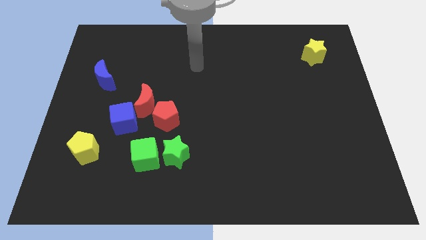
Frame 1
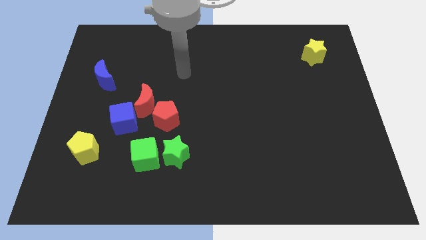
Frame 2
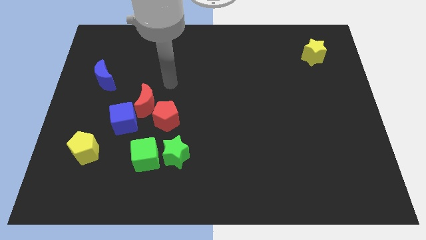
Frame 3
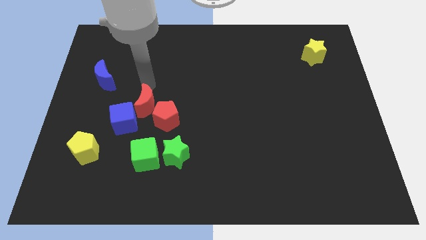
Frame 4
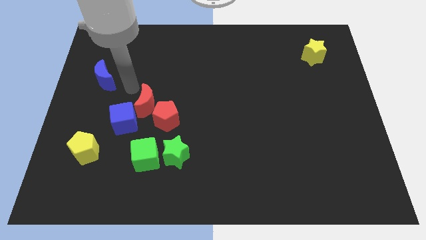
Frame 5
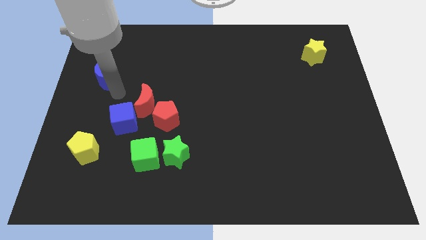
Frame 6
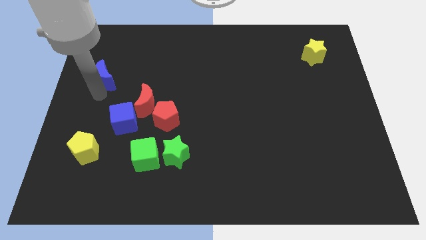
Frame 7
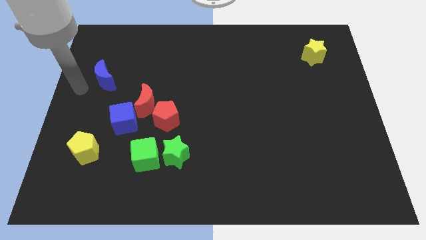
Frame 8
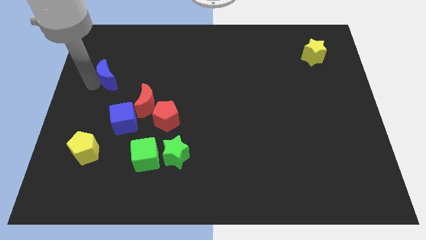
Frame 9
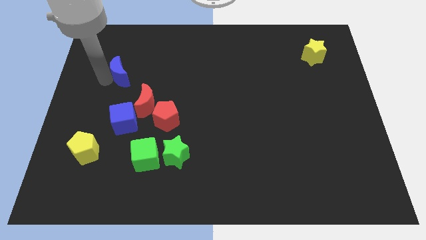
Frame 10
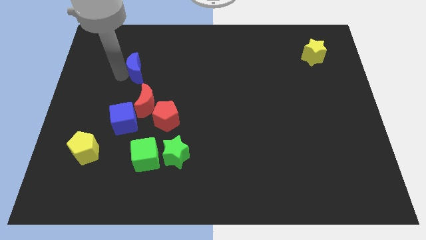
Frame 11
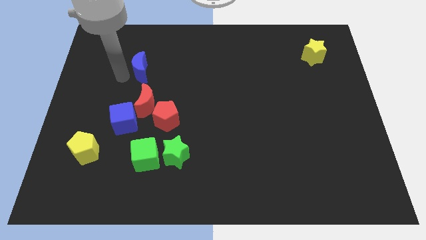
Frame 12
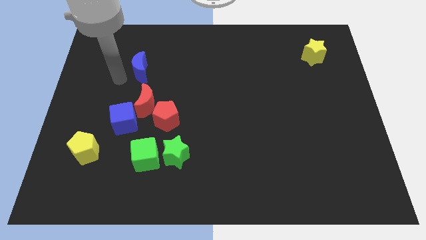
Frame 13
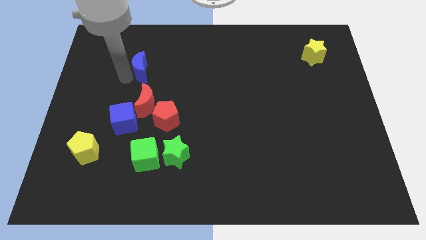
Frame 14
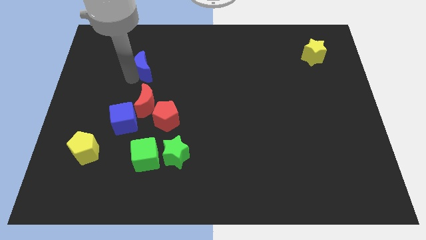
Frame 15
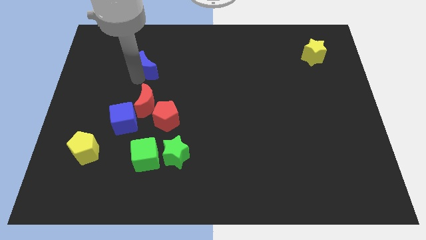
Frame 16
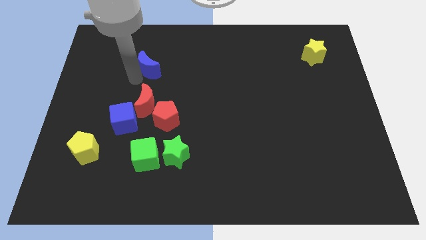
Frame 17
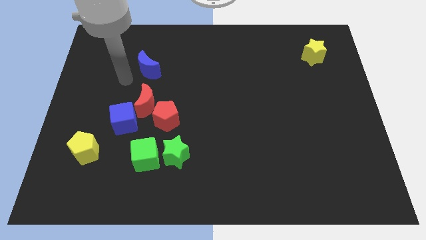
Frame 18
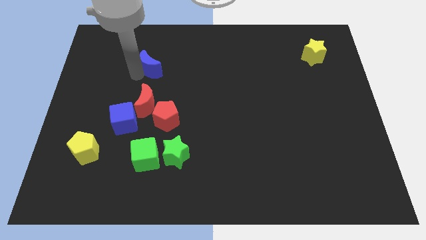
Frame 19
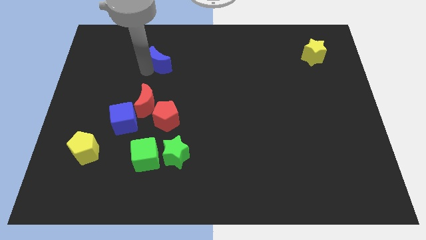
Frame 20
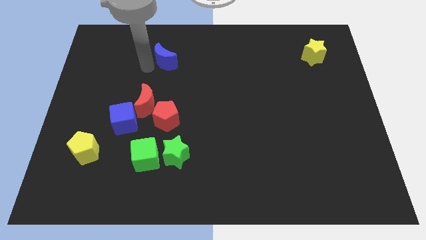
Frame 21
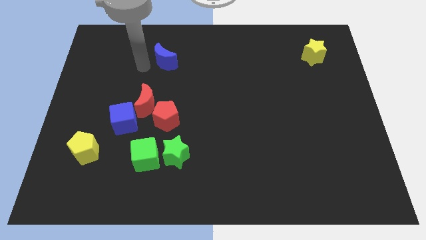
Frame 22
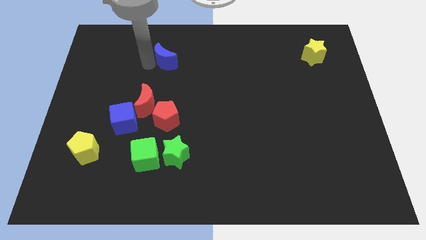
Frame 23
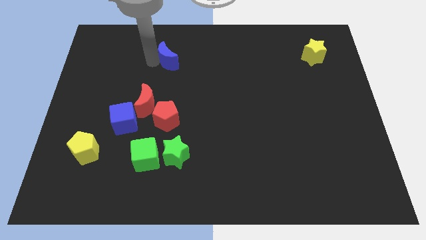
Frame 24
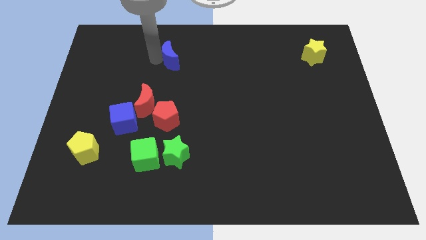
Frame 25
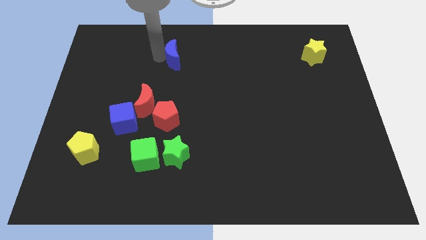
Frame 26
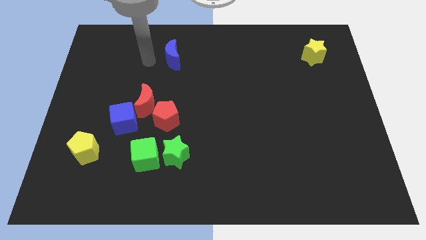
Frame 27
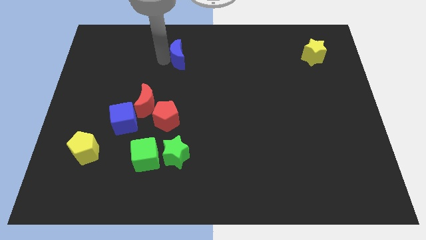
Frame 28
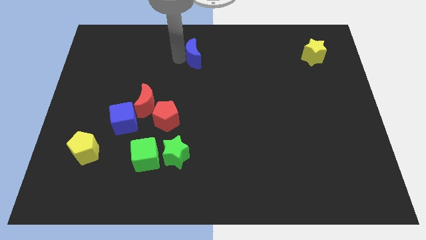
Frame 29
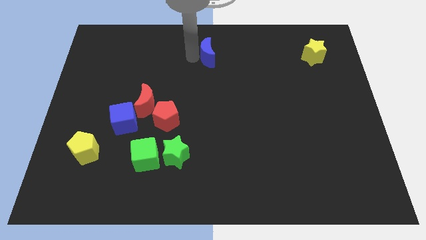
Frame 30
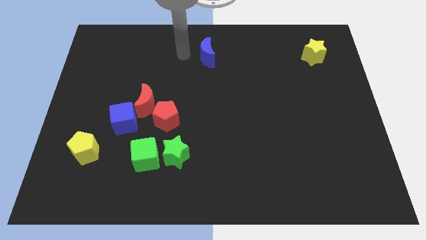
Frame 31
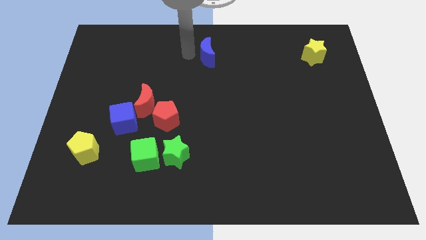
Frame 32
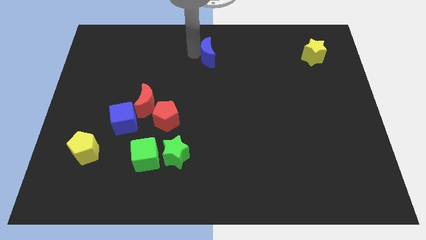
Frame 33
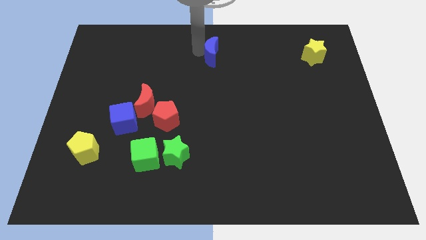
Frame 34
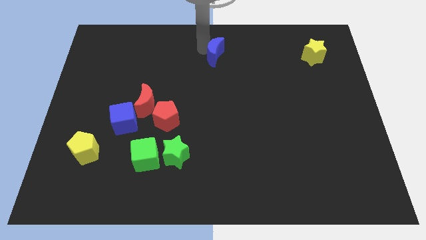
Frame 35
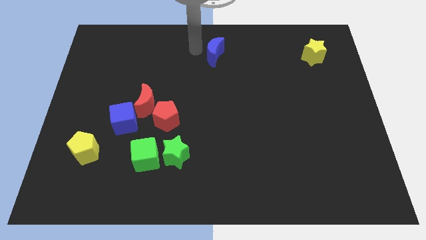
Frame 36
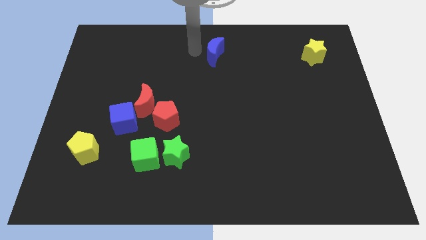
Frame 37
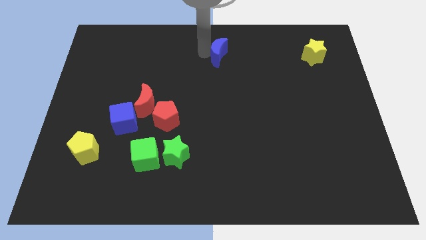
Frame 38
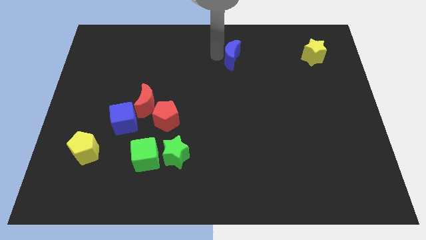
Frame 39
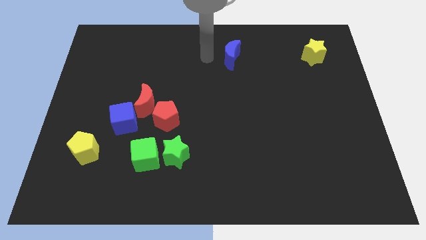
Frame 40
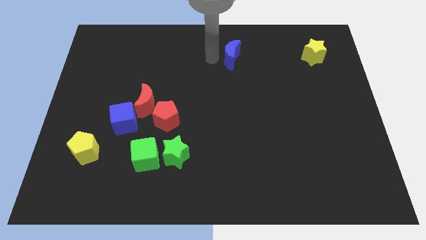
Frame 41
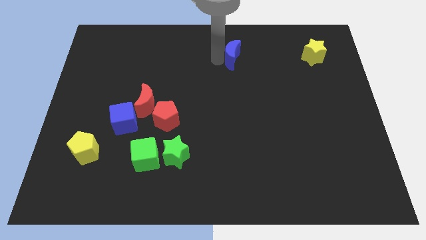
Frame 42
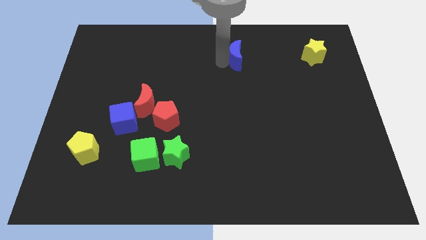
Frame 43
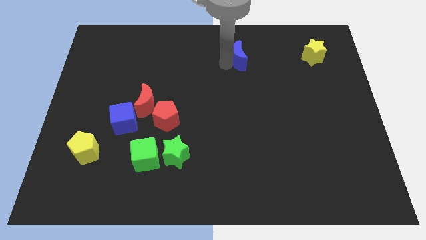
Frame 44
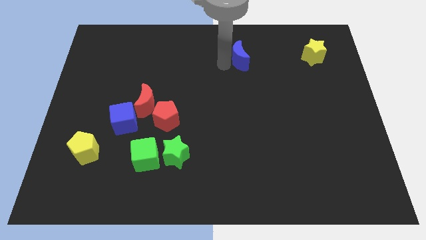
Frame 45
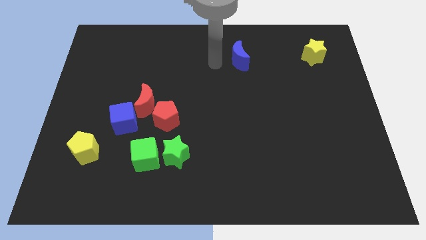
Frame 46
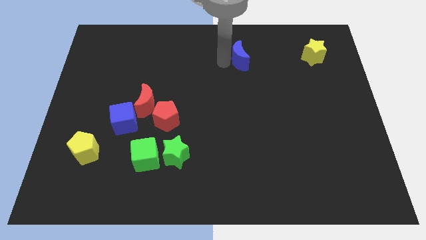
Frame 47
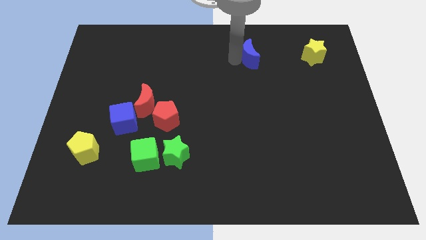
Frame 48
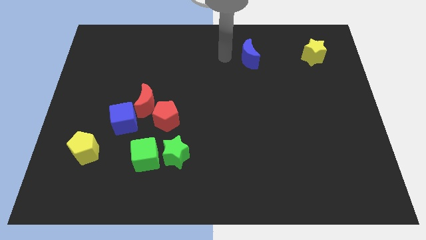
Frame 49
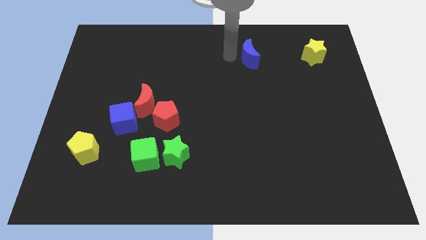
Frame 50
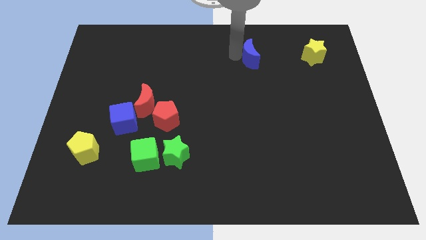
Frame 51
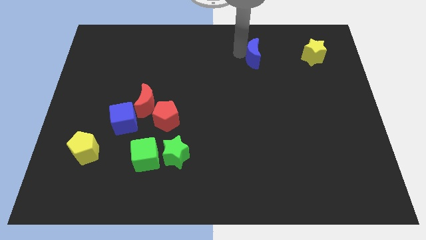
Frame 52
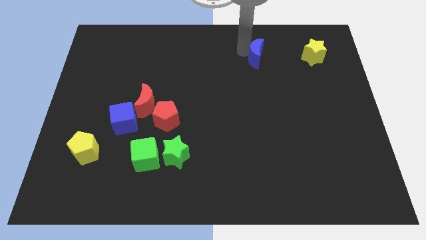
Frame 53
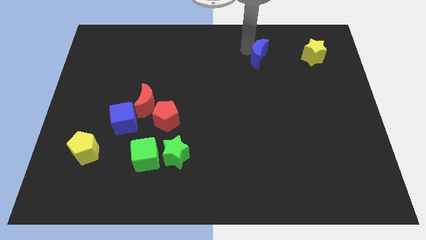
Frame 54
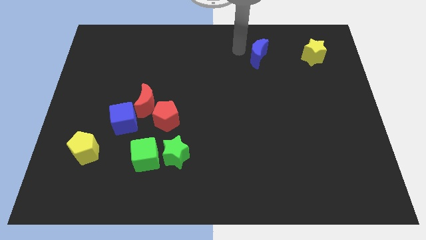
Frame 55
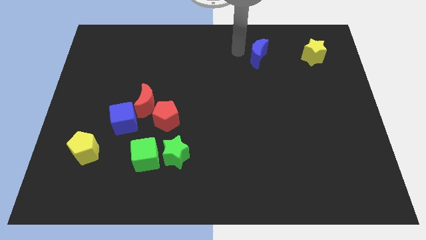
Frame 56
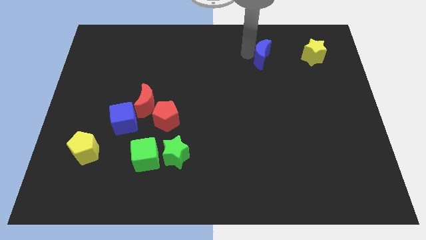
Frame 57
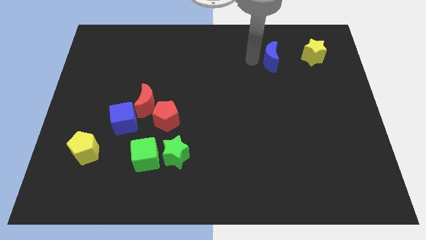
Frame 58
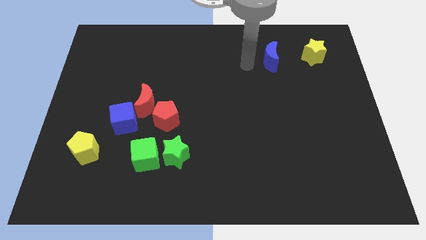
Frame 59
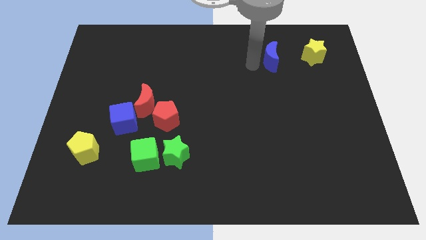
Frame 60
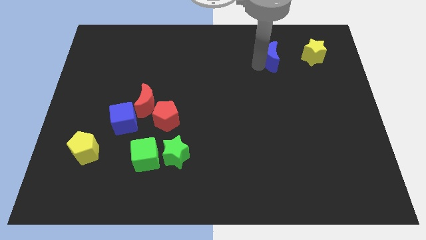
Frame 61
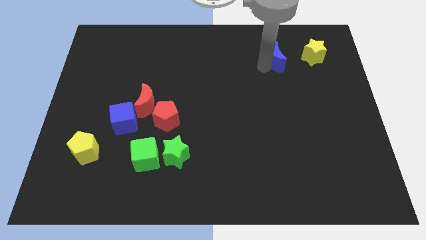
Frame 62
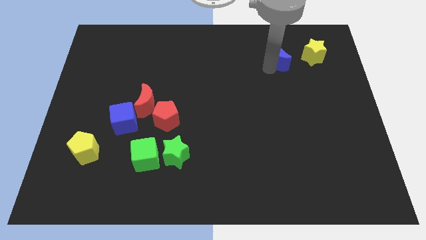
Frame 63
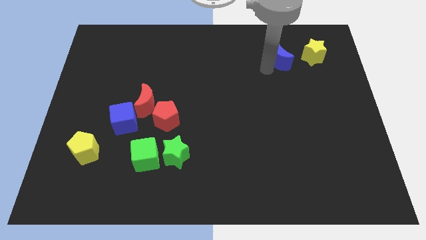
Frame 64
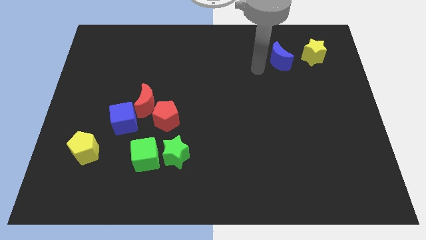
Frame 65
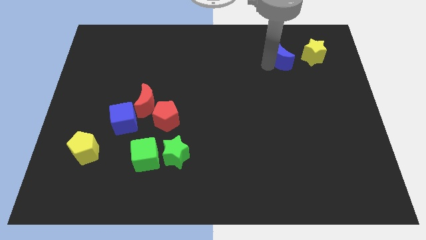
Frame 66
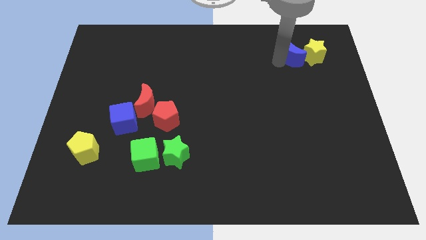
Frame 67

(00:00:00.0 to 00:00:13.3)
slide the blue moon towards the yellow star

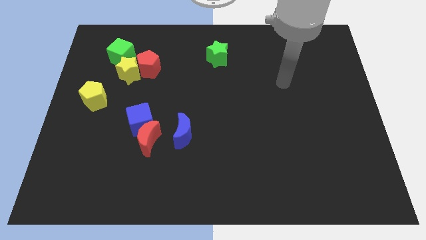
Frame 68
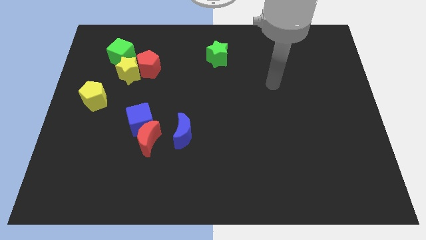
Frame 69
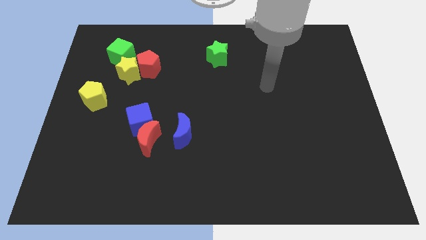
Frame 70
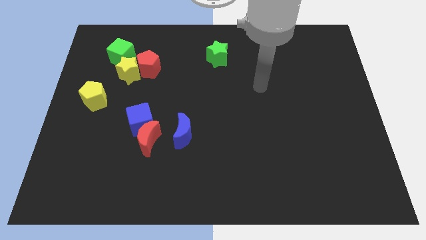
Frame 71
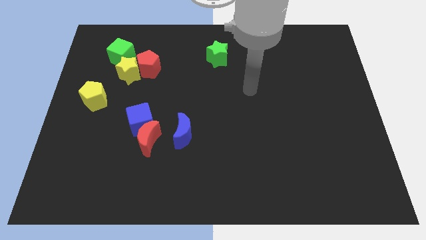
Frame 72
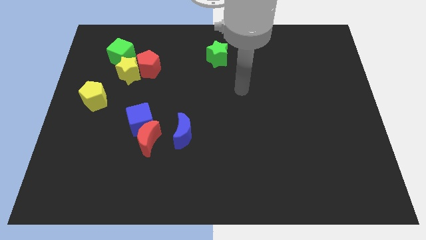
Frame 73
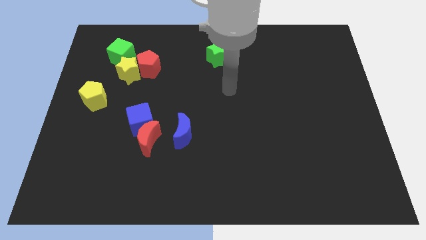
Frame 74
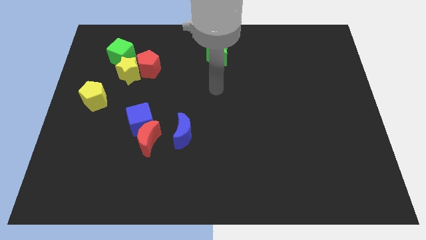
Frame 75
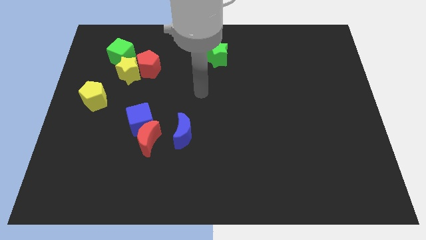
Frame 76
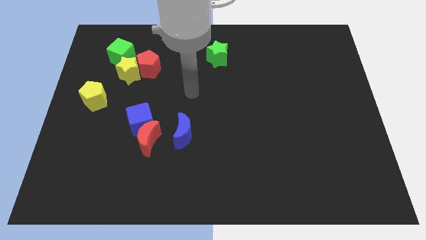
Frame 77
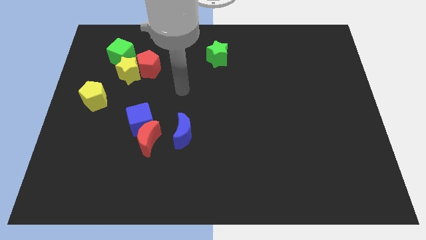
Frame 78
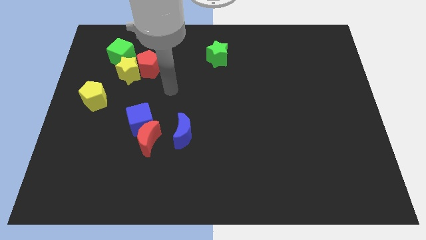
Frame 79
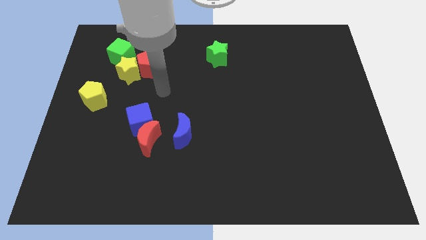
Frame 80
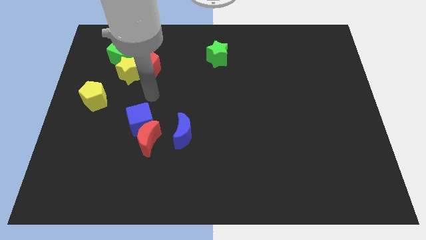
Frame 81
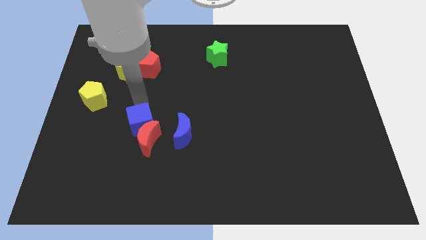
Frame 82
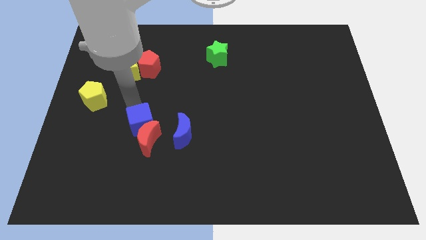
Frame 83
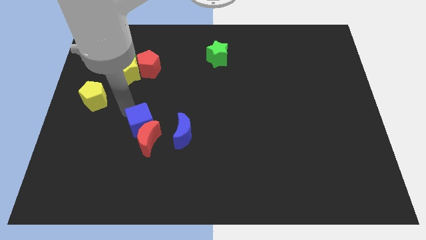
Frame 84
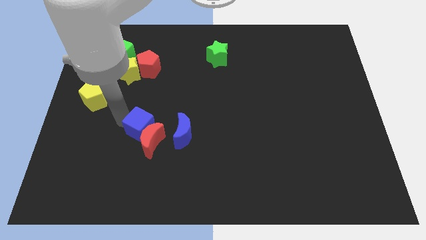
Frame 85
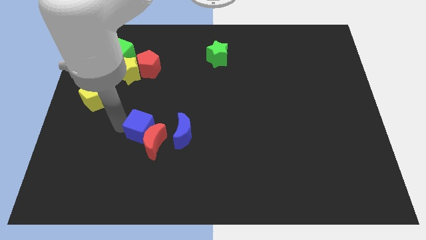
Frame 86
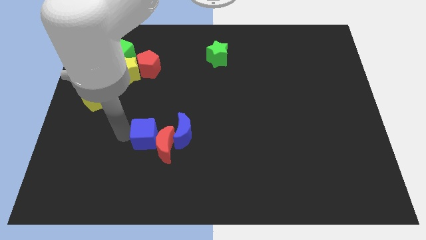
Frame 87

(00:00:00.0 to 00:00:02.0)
push the red moon towards the blue moon
